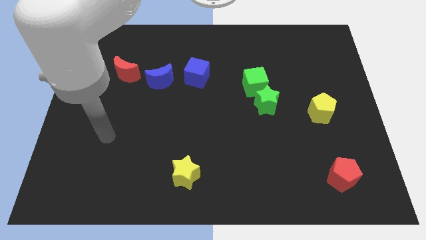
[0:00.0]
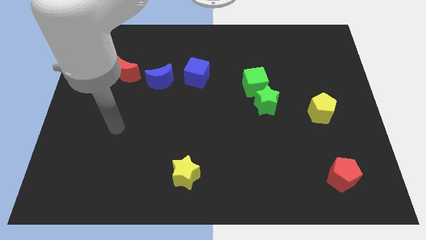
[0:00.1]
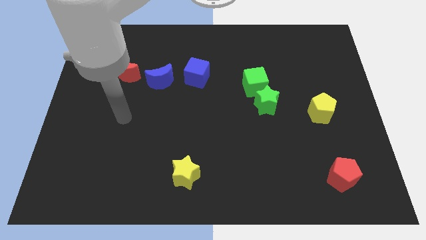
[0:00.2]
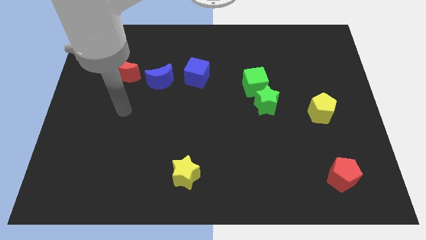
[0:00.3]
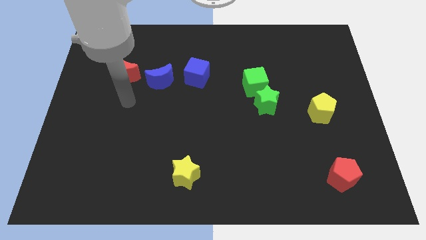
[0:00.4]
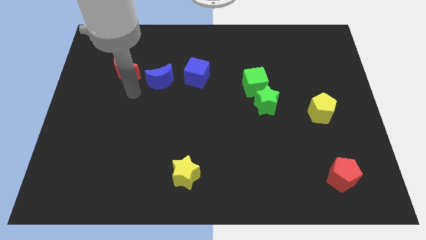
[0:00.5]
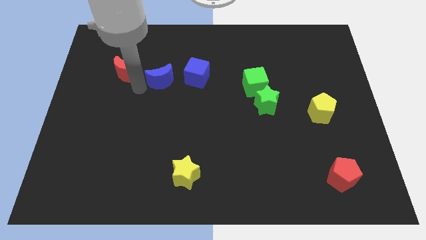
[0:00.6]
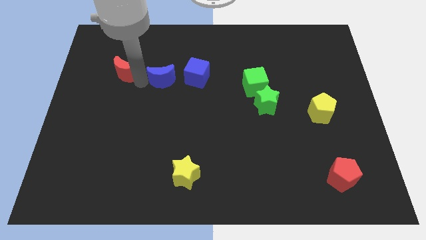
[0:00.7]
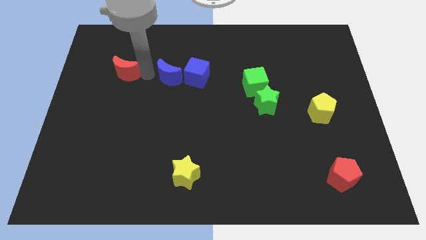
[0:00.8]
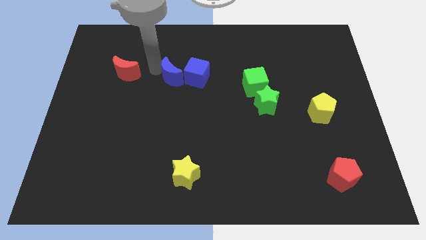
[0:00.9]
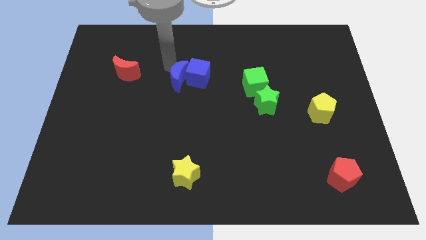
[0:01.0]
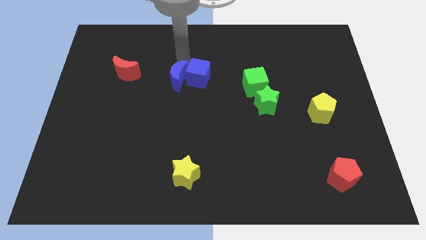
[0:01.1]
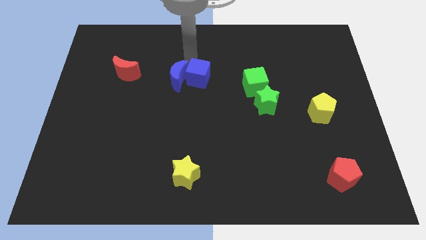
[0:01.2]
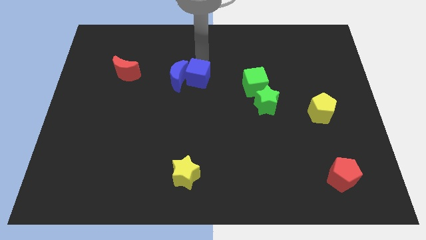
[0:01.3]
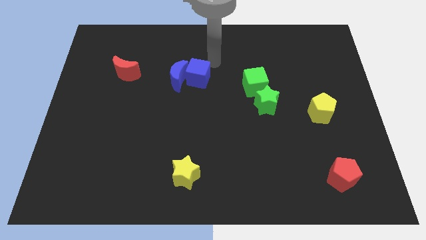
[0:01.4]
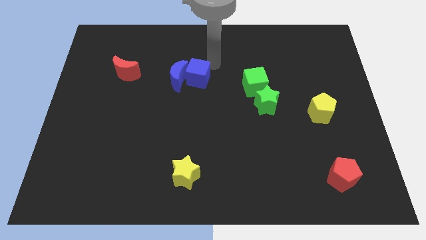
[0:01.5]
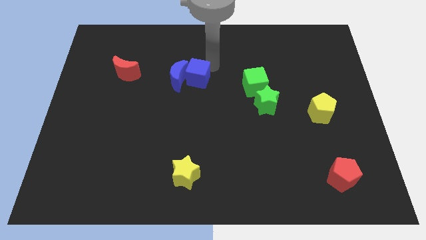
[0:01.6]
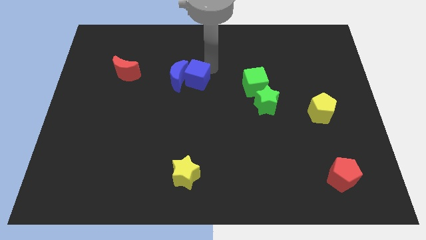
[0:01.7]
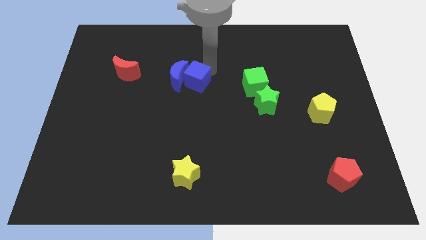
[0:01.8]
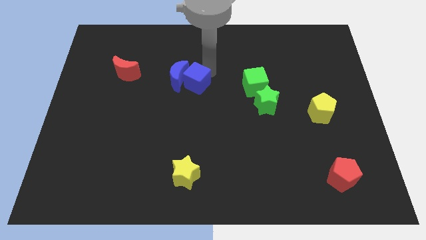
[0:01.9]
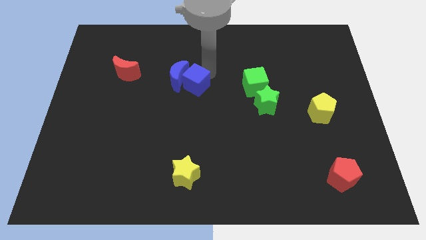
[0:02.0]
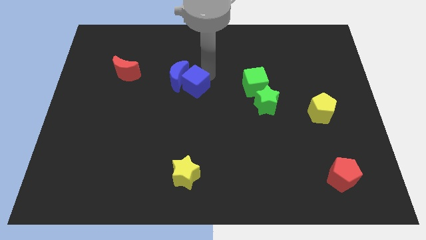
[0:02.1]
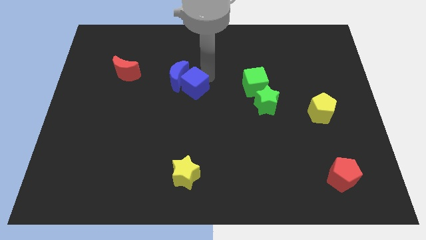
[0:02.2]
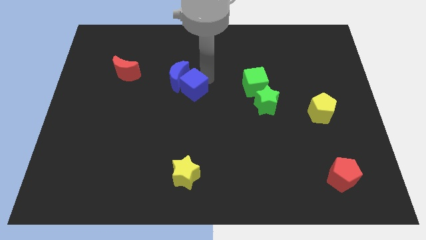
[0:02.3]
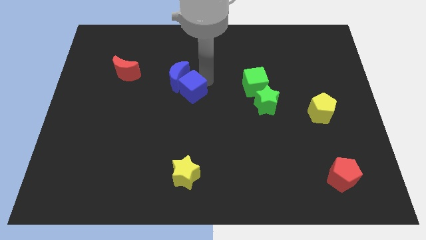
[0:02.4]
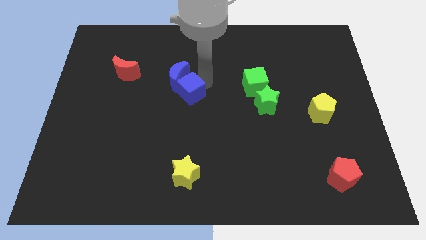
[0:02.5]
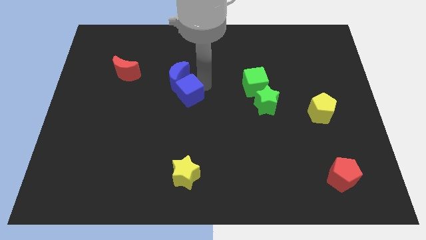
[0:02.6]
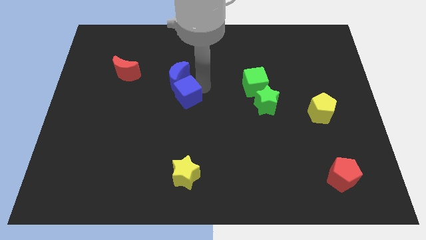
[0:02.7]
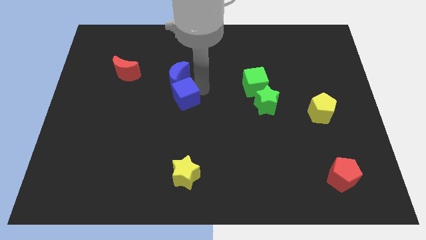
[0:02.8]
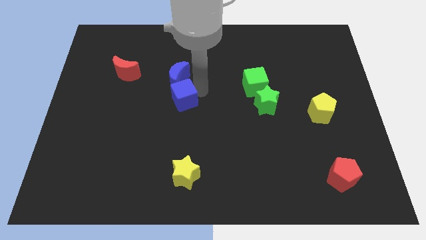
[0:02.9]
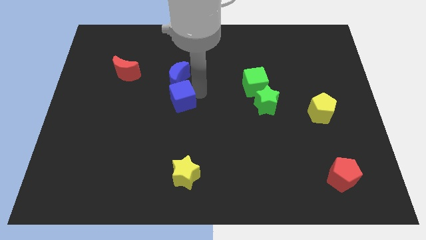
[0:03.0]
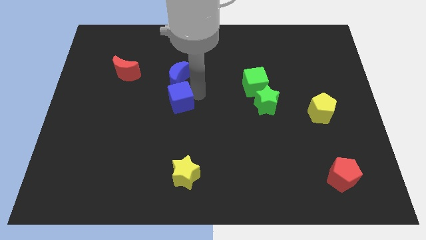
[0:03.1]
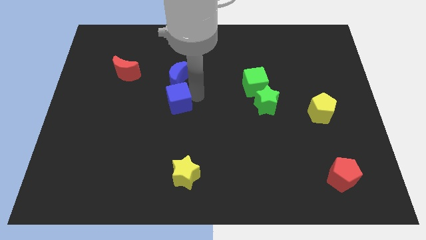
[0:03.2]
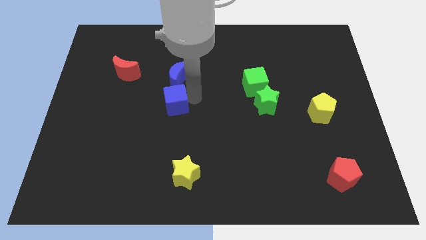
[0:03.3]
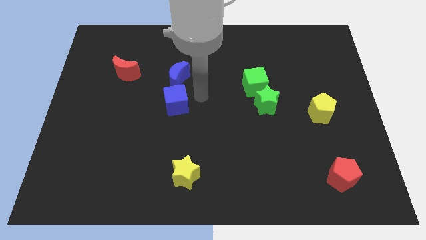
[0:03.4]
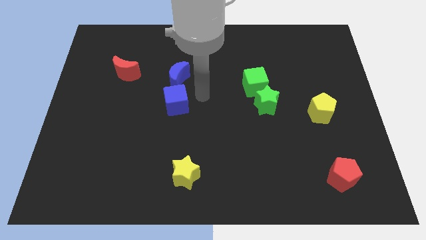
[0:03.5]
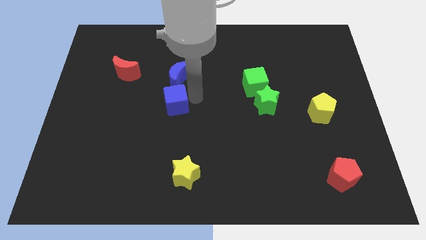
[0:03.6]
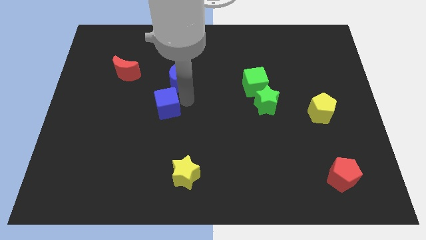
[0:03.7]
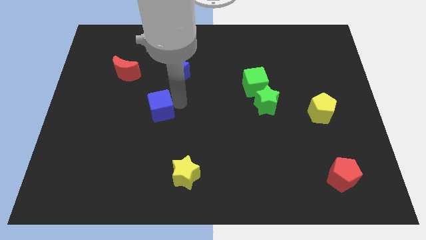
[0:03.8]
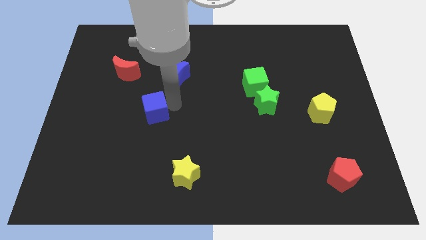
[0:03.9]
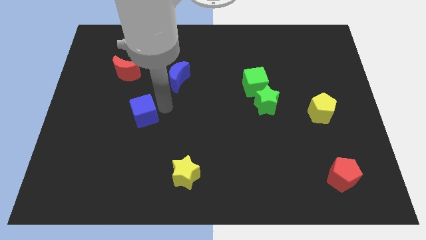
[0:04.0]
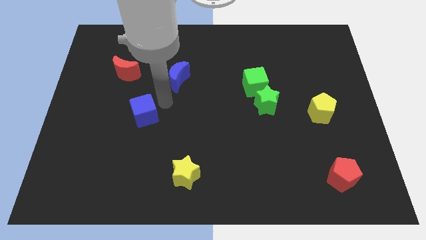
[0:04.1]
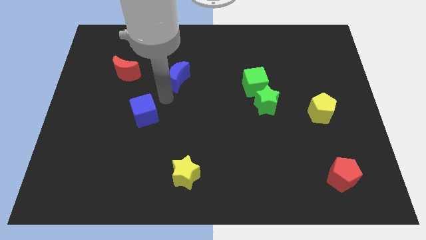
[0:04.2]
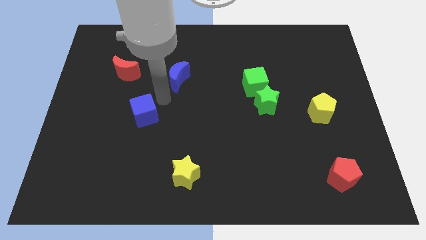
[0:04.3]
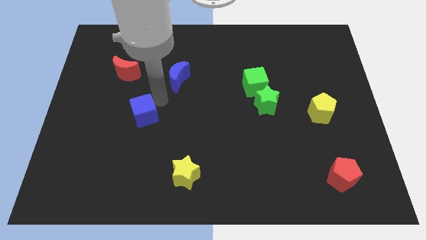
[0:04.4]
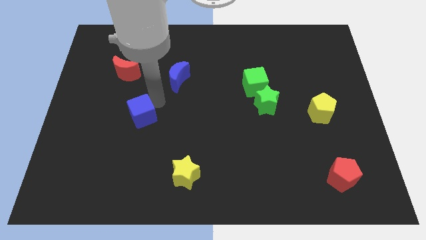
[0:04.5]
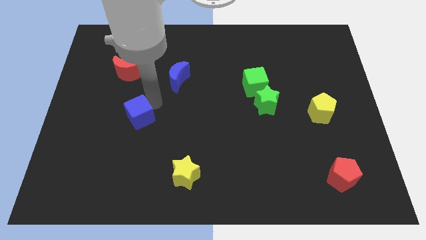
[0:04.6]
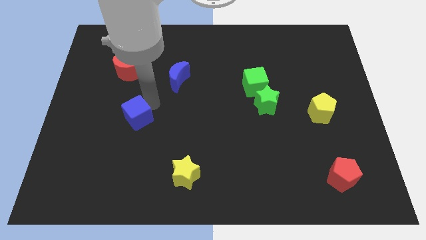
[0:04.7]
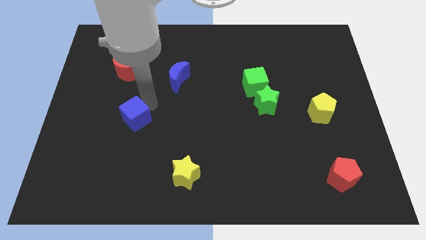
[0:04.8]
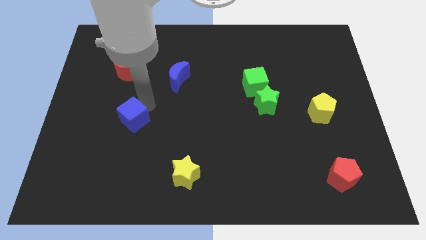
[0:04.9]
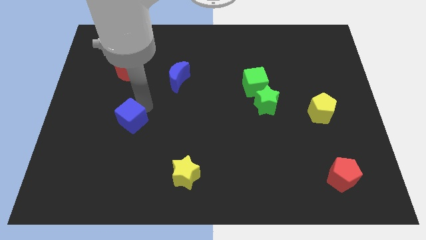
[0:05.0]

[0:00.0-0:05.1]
move the blue cube downwards and left

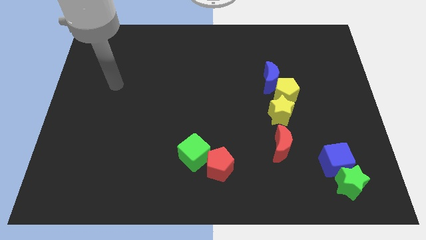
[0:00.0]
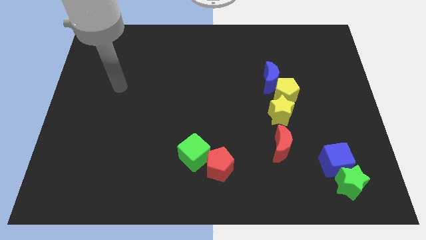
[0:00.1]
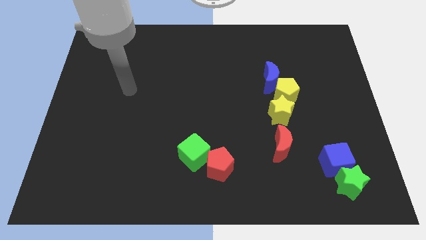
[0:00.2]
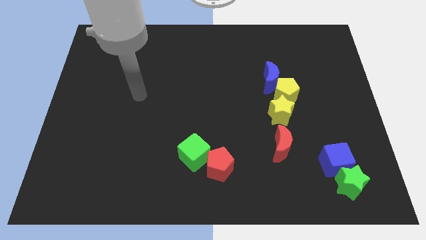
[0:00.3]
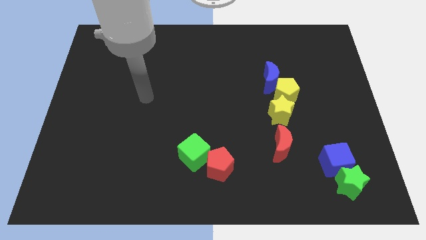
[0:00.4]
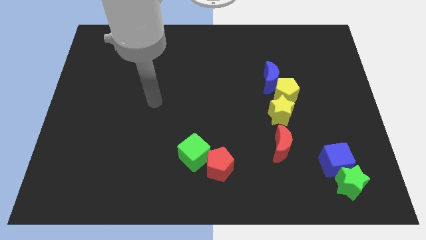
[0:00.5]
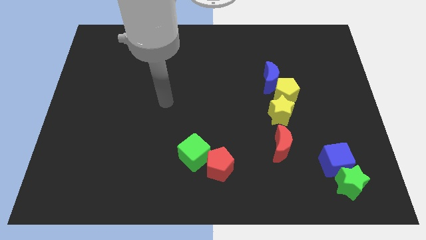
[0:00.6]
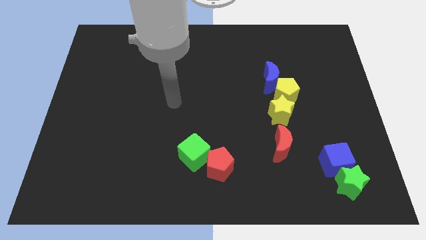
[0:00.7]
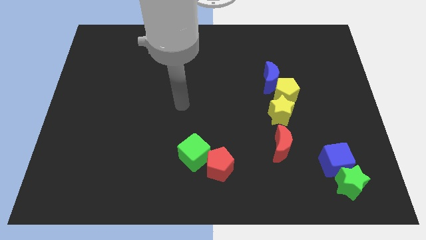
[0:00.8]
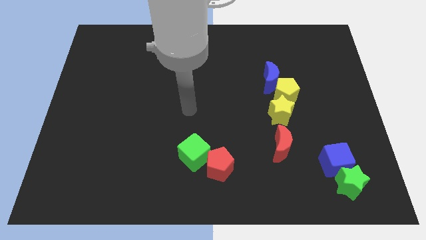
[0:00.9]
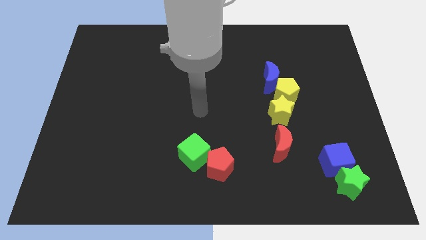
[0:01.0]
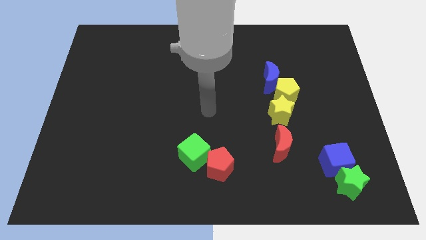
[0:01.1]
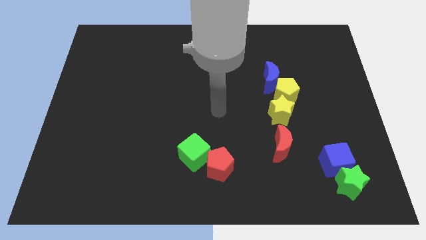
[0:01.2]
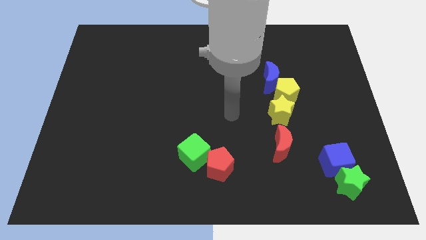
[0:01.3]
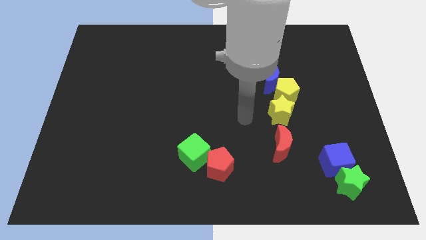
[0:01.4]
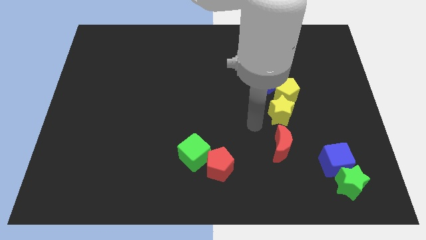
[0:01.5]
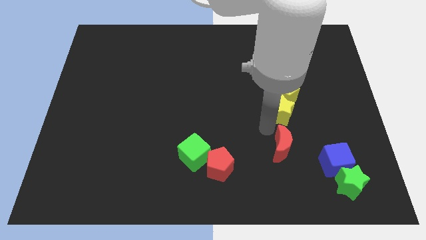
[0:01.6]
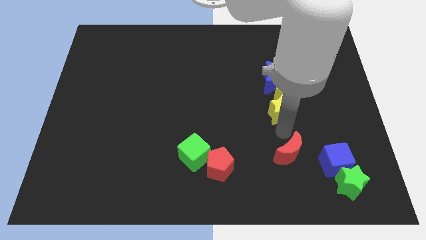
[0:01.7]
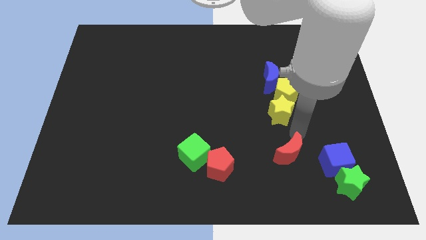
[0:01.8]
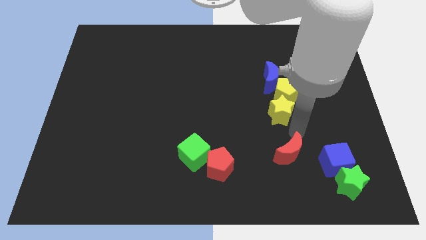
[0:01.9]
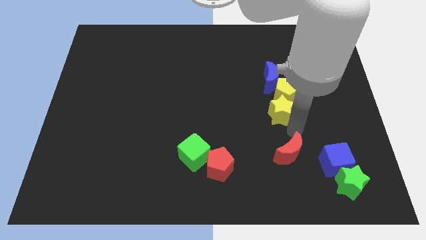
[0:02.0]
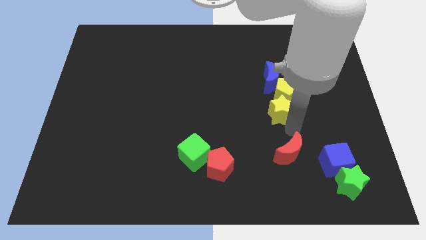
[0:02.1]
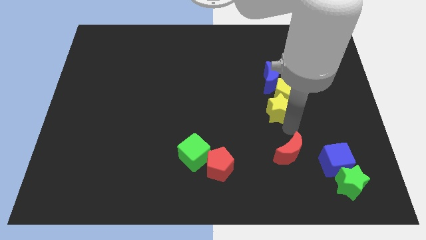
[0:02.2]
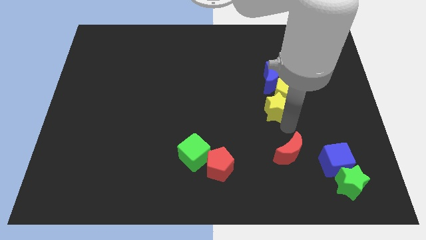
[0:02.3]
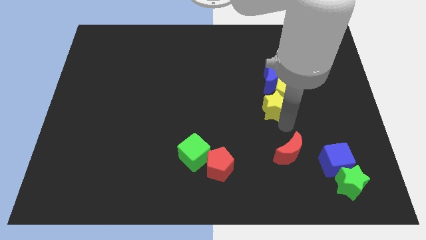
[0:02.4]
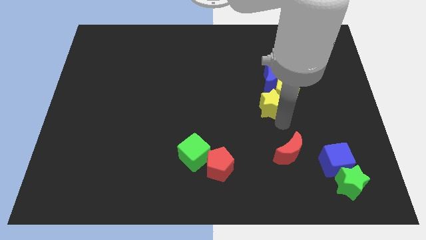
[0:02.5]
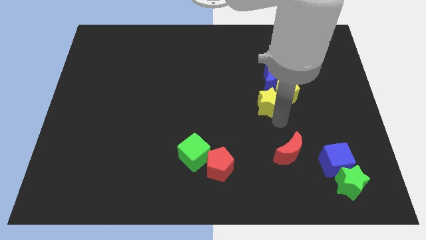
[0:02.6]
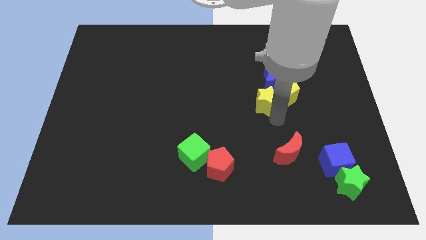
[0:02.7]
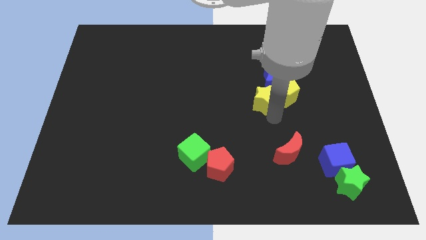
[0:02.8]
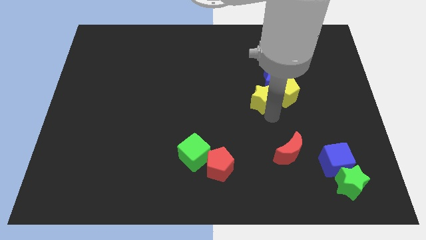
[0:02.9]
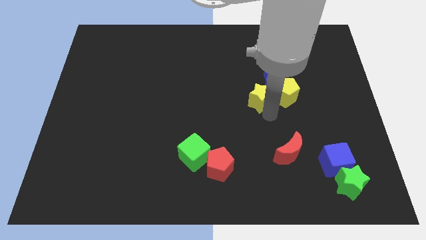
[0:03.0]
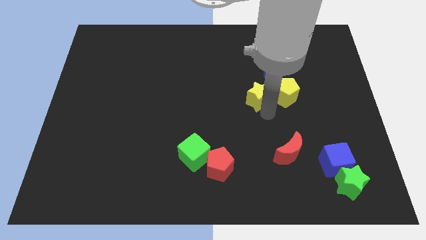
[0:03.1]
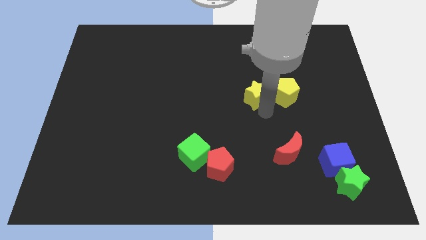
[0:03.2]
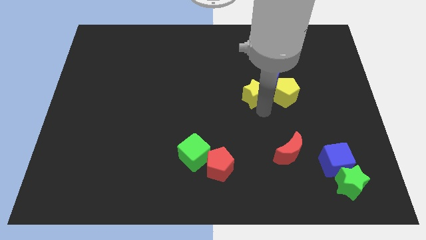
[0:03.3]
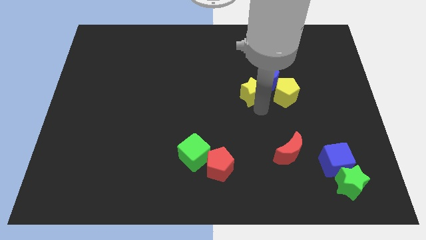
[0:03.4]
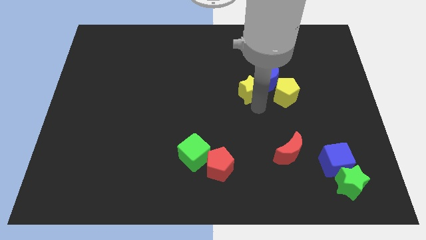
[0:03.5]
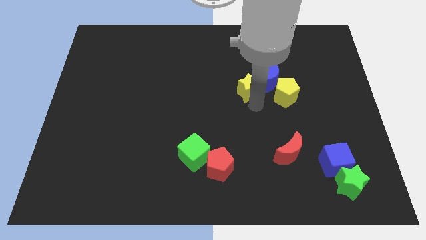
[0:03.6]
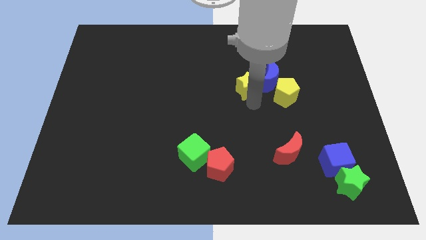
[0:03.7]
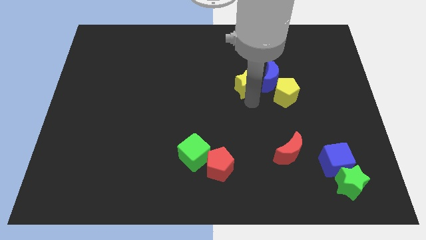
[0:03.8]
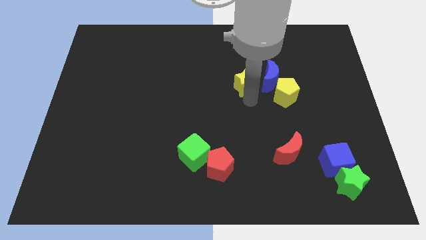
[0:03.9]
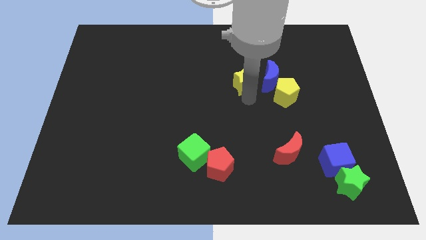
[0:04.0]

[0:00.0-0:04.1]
slightly move the yellow star upwards
